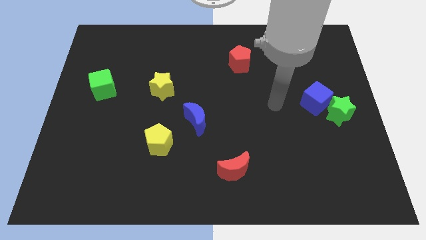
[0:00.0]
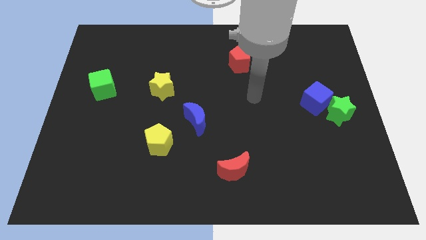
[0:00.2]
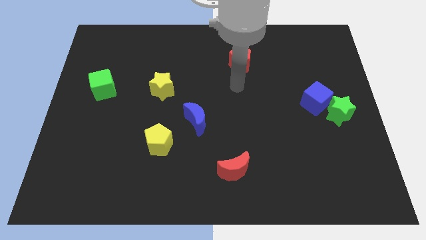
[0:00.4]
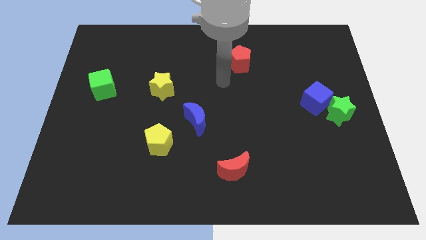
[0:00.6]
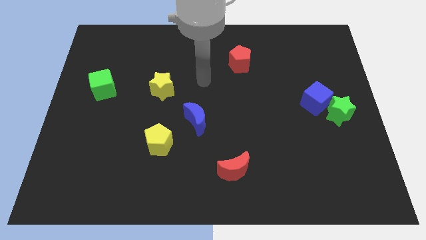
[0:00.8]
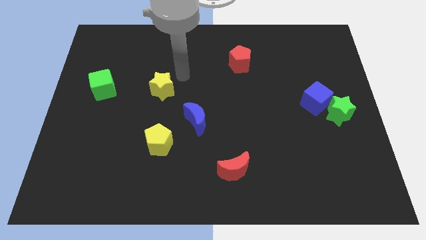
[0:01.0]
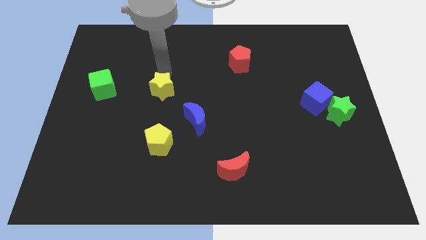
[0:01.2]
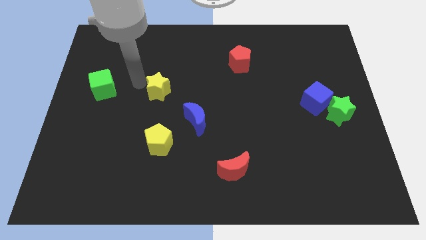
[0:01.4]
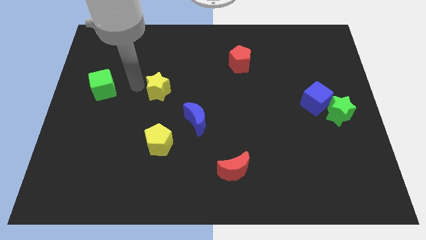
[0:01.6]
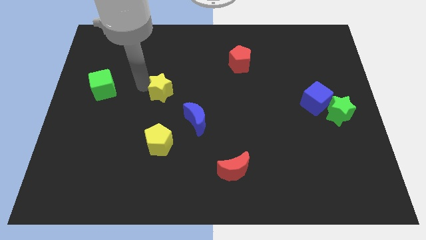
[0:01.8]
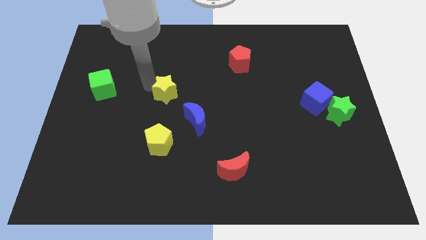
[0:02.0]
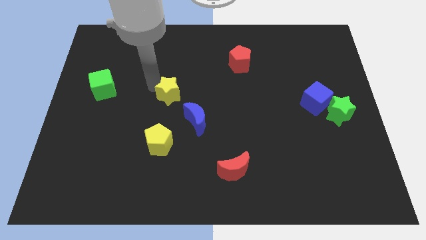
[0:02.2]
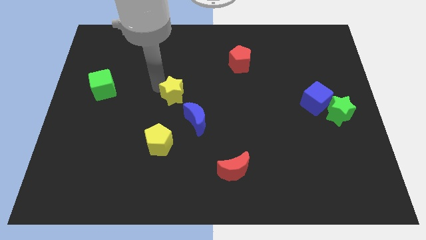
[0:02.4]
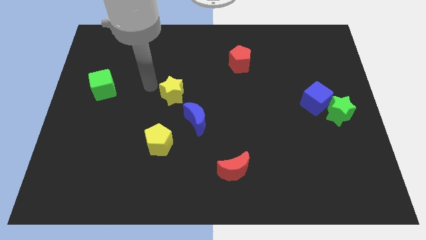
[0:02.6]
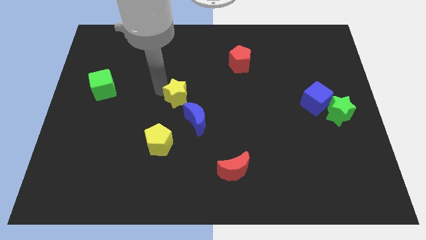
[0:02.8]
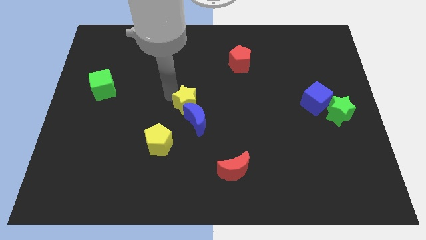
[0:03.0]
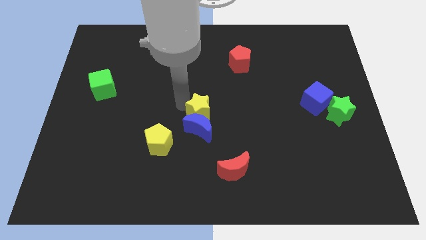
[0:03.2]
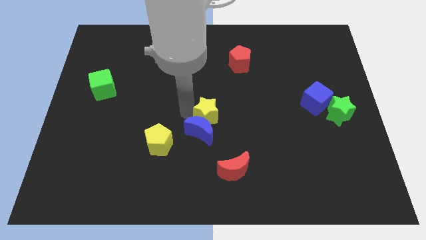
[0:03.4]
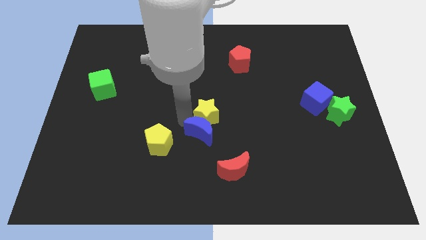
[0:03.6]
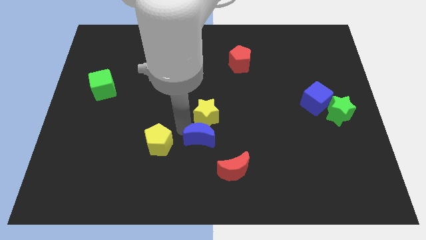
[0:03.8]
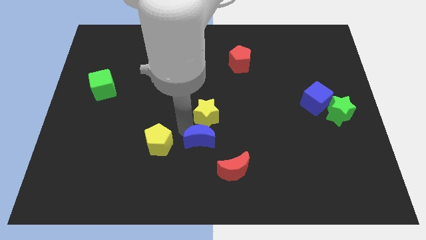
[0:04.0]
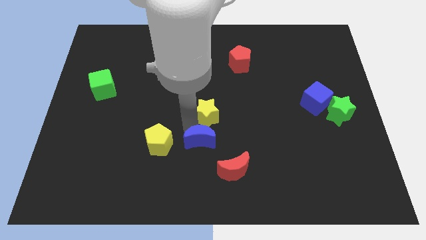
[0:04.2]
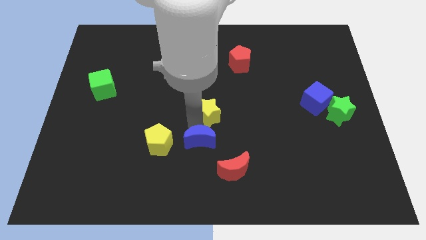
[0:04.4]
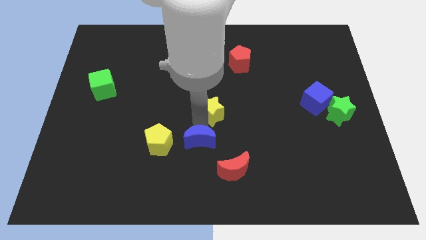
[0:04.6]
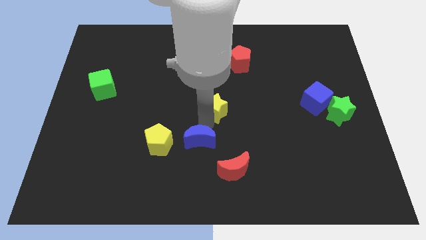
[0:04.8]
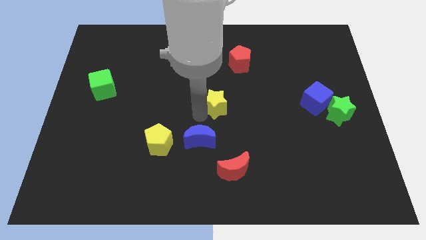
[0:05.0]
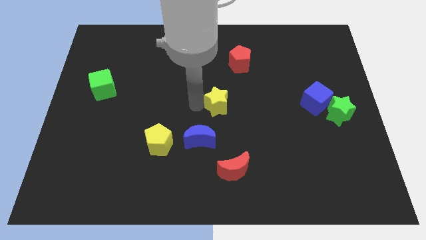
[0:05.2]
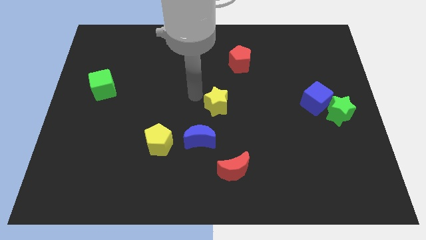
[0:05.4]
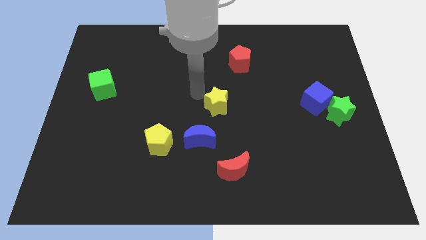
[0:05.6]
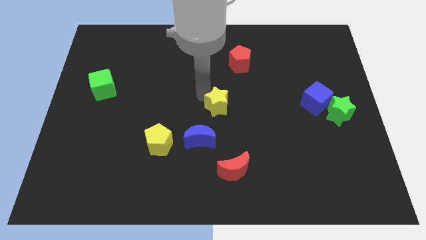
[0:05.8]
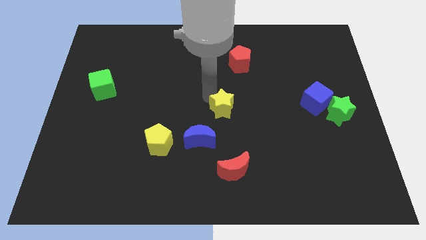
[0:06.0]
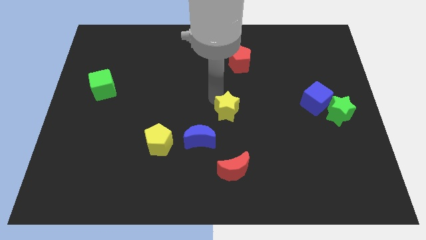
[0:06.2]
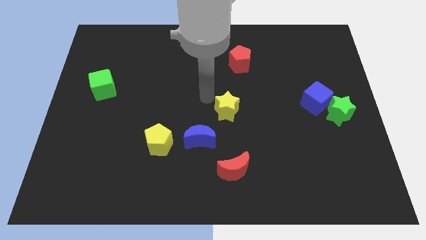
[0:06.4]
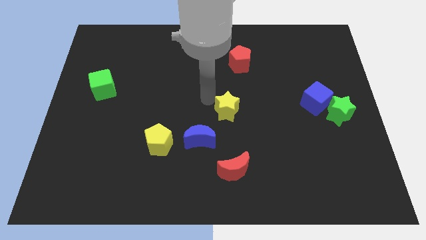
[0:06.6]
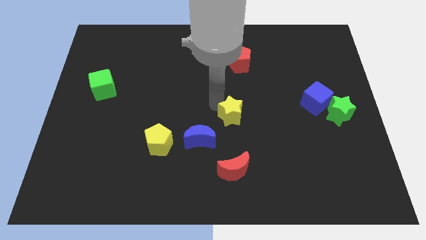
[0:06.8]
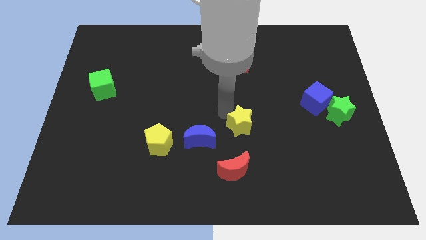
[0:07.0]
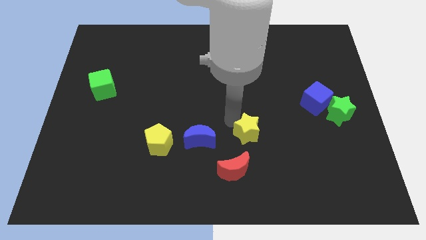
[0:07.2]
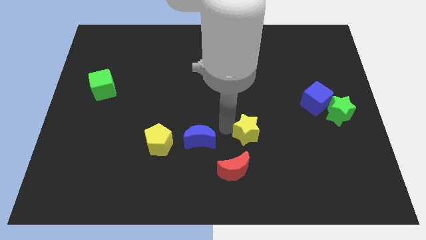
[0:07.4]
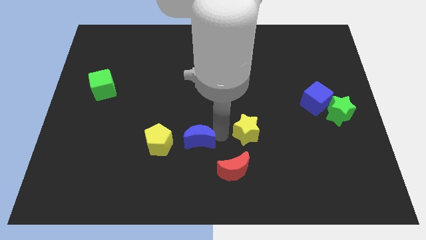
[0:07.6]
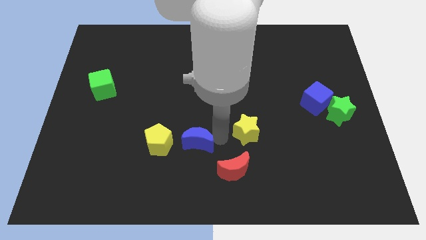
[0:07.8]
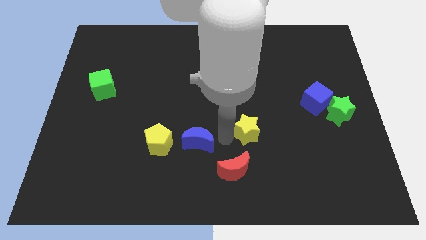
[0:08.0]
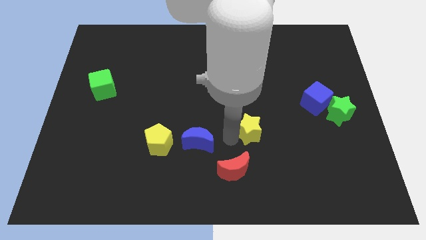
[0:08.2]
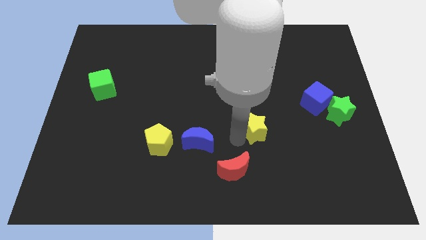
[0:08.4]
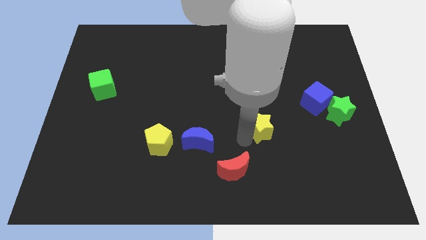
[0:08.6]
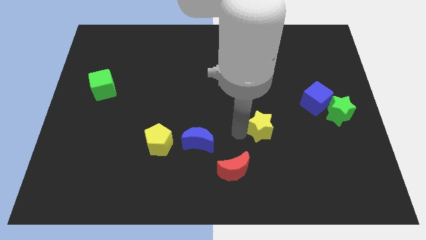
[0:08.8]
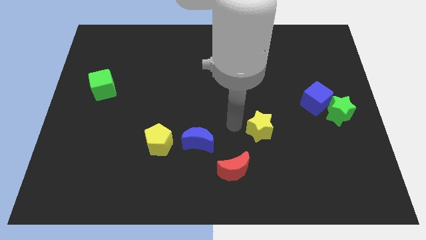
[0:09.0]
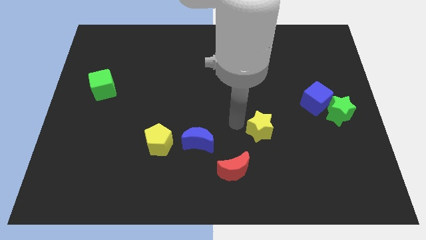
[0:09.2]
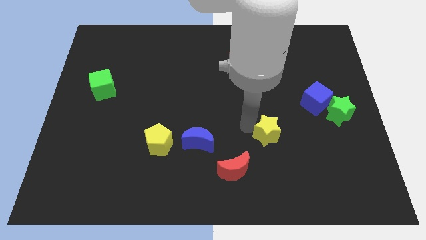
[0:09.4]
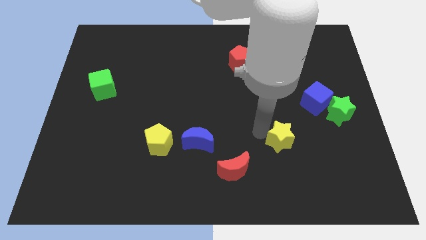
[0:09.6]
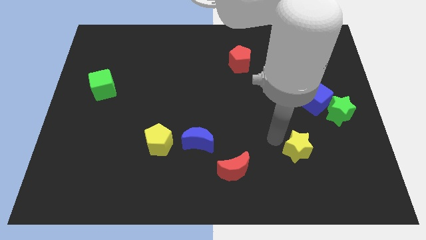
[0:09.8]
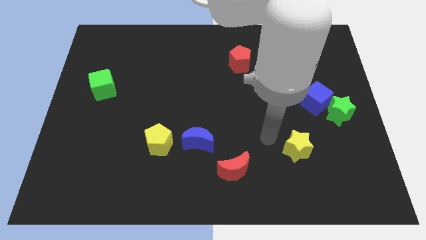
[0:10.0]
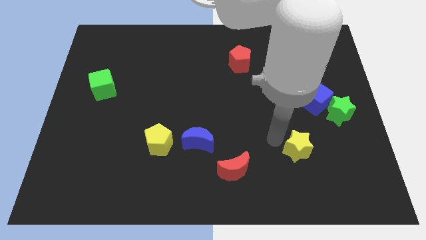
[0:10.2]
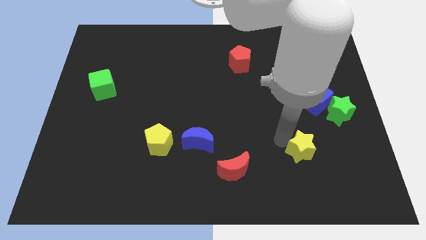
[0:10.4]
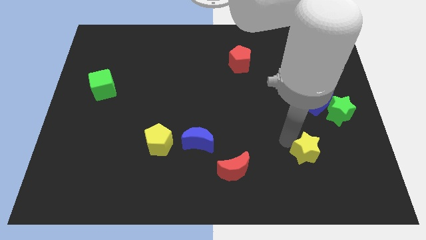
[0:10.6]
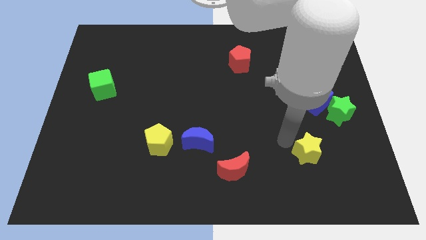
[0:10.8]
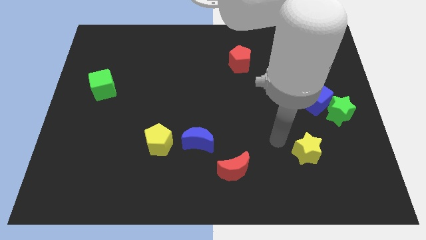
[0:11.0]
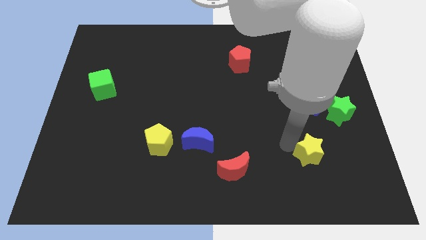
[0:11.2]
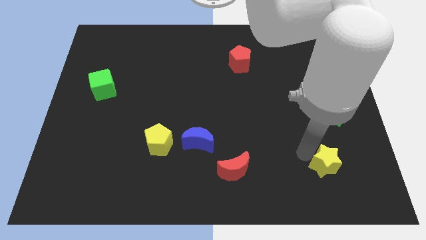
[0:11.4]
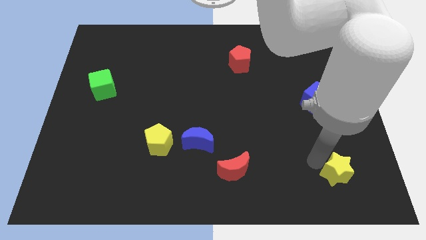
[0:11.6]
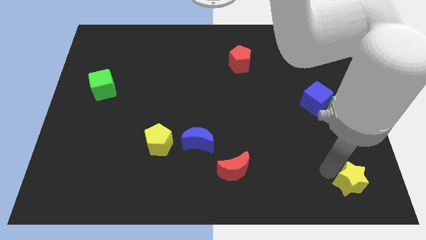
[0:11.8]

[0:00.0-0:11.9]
slide the yellow star to the lower right corner
